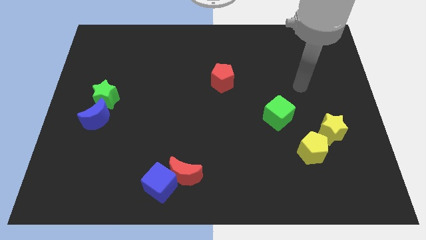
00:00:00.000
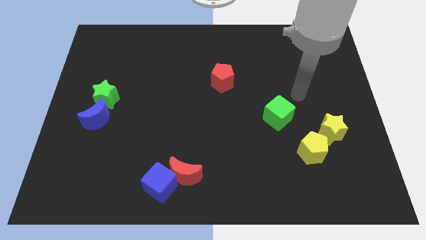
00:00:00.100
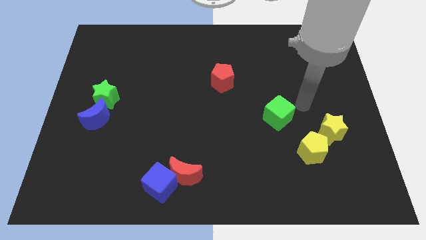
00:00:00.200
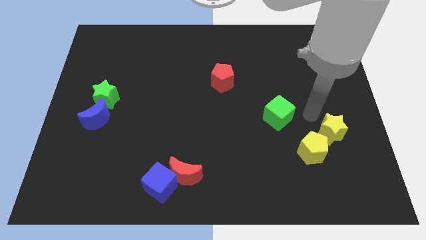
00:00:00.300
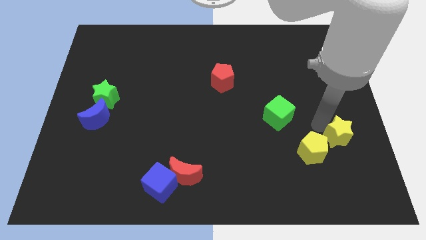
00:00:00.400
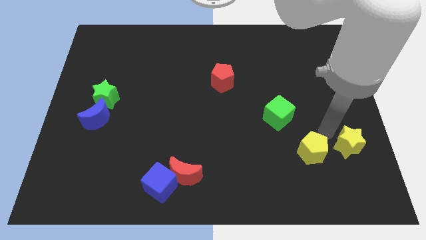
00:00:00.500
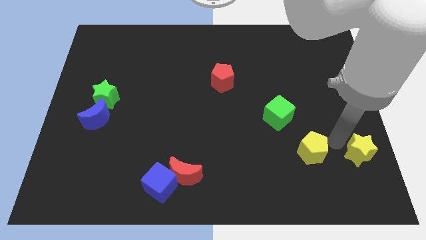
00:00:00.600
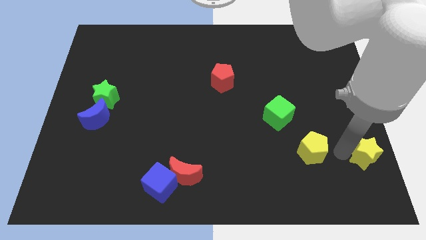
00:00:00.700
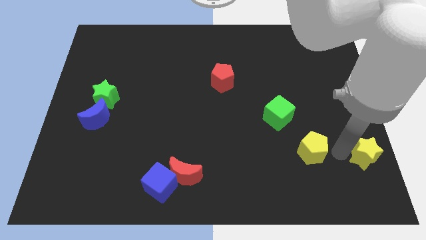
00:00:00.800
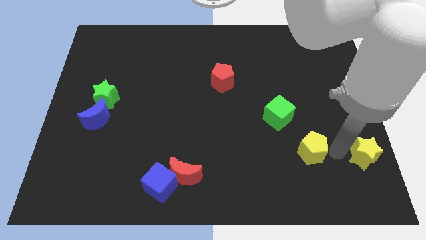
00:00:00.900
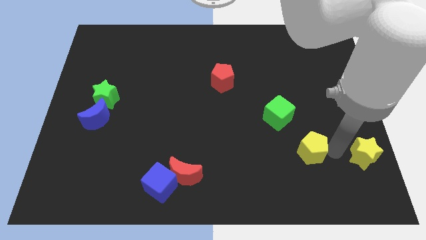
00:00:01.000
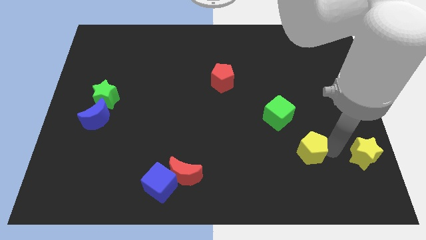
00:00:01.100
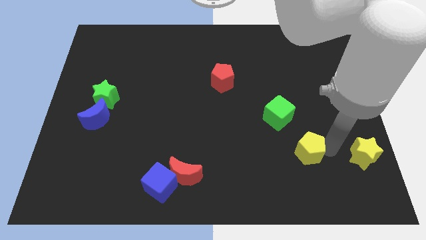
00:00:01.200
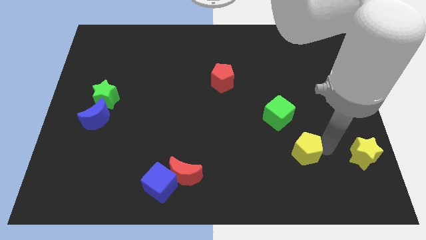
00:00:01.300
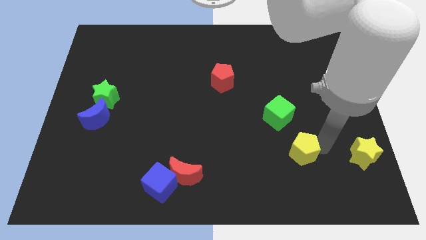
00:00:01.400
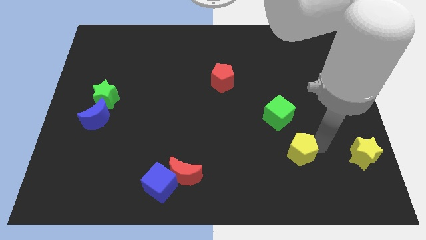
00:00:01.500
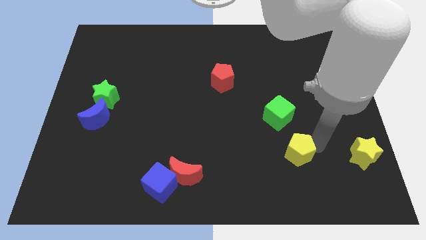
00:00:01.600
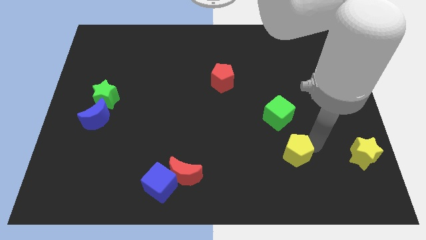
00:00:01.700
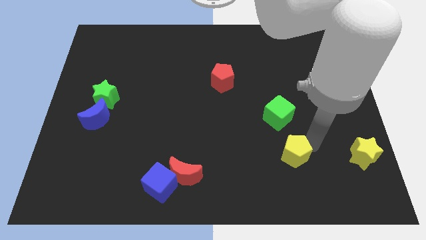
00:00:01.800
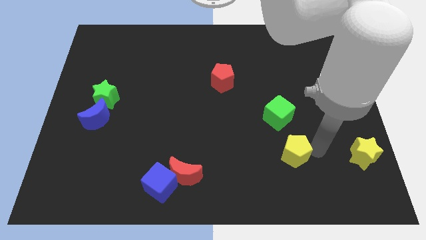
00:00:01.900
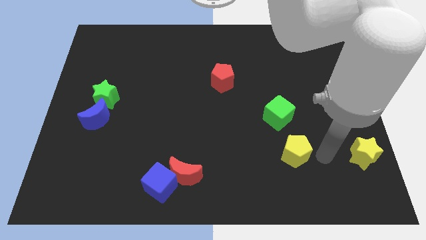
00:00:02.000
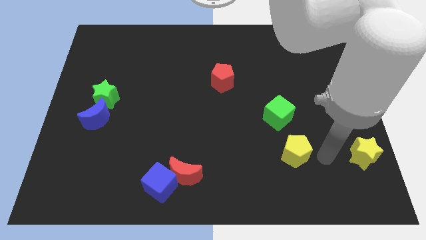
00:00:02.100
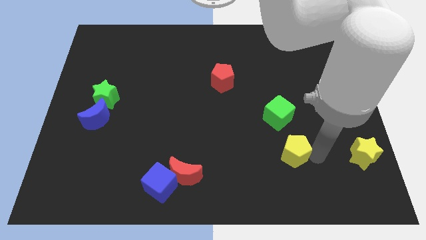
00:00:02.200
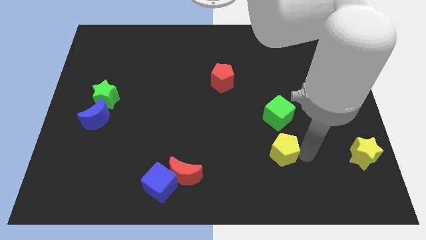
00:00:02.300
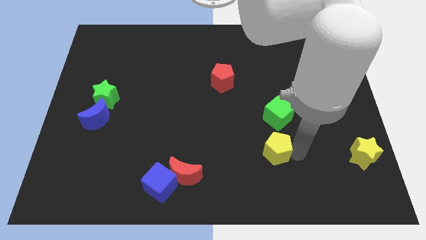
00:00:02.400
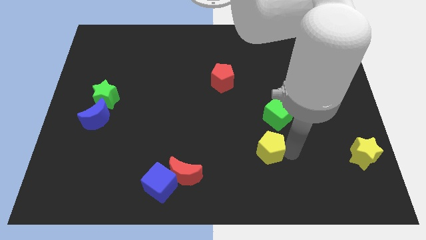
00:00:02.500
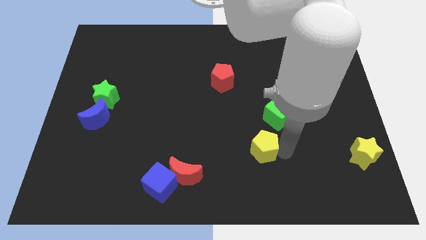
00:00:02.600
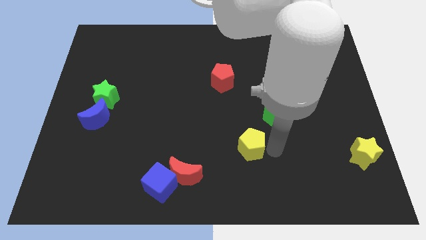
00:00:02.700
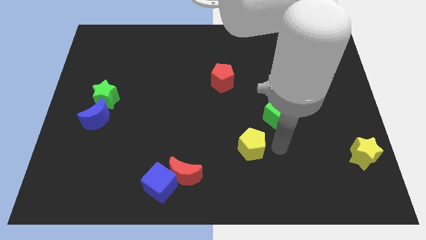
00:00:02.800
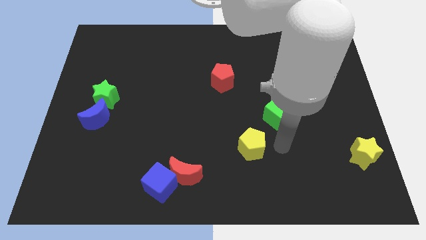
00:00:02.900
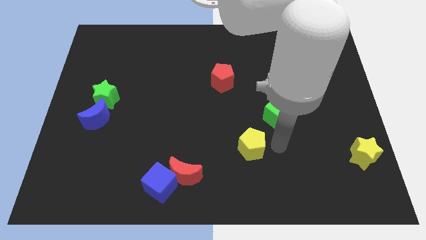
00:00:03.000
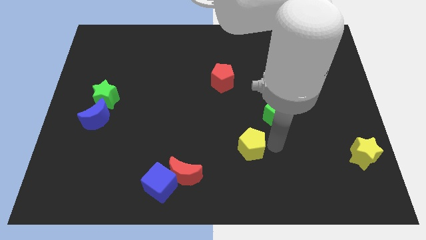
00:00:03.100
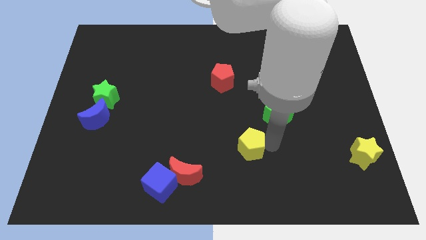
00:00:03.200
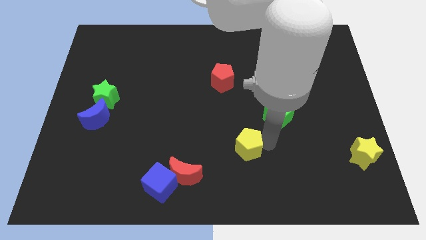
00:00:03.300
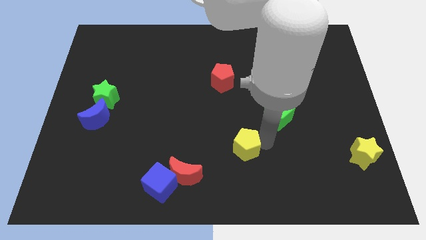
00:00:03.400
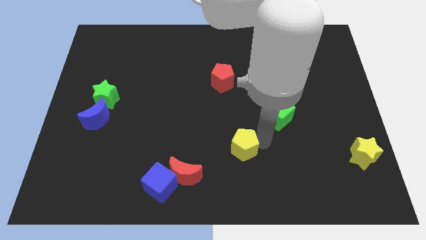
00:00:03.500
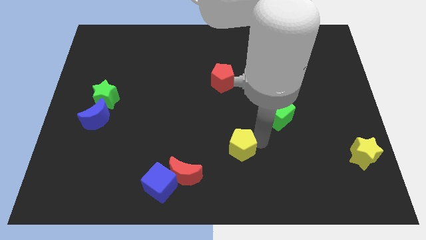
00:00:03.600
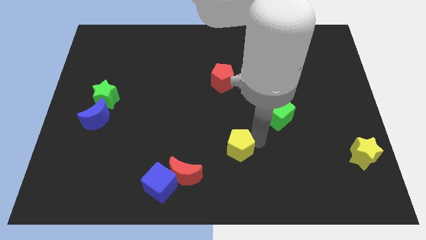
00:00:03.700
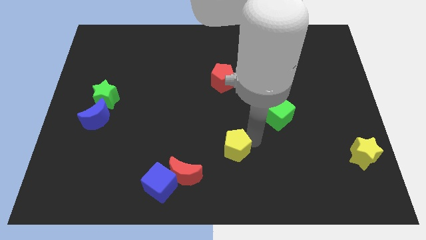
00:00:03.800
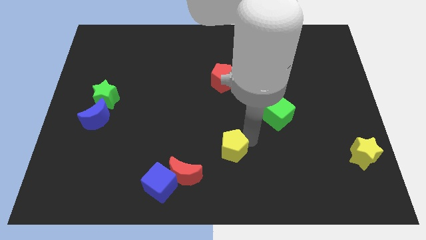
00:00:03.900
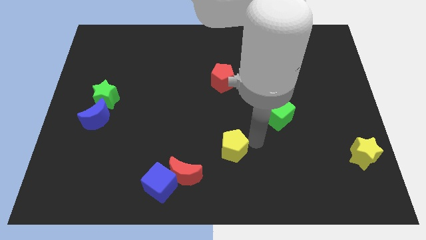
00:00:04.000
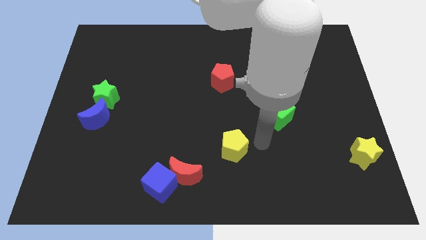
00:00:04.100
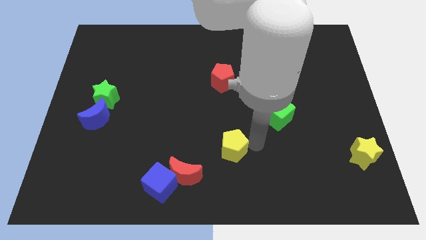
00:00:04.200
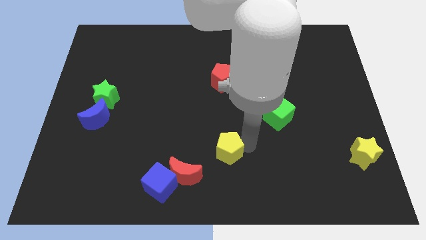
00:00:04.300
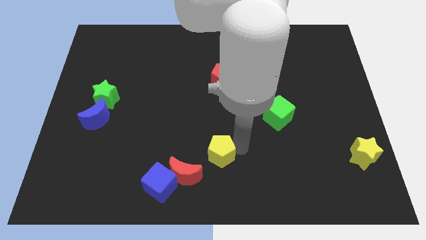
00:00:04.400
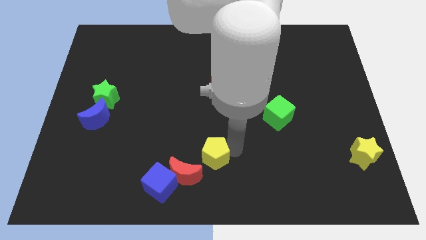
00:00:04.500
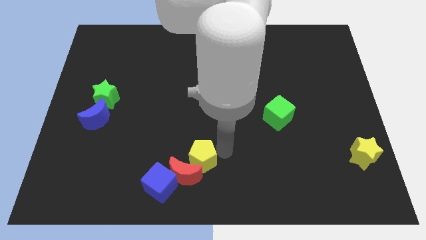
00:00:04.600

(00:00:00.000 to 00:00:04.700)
push the yellow pentagon next to the red moon

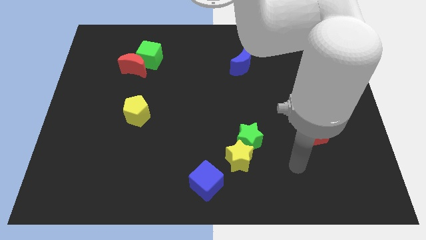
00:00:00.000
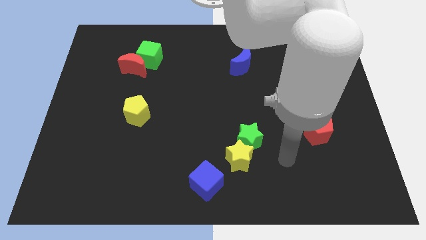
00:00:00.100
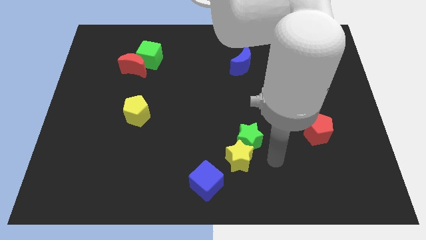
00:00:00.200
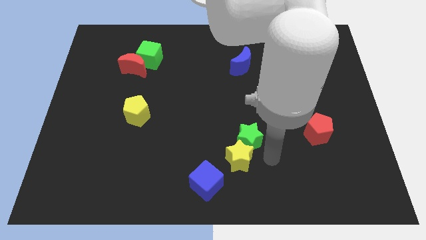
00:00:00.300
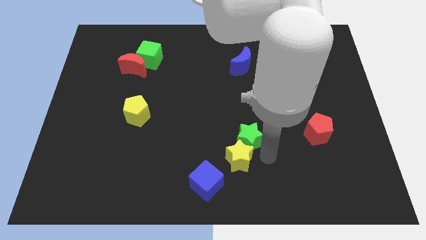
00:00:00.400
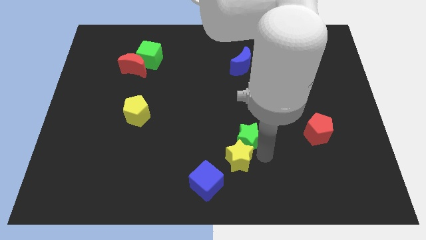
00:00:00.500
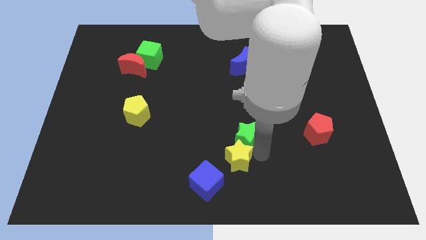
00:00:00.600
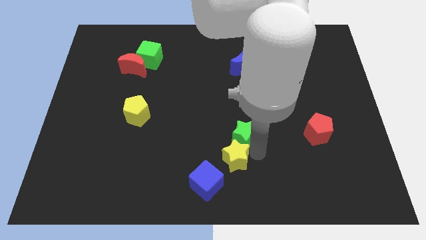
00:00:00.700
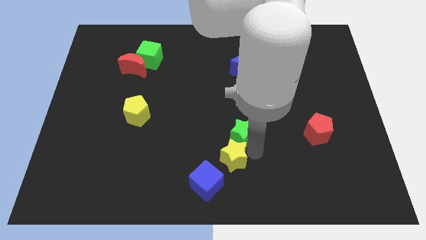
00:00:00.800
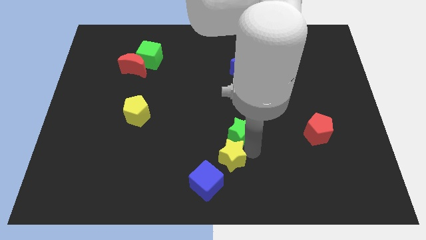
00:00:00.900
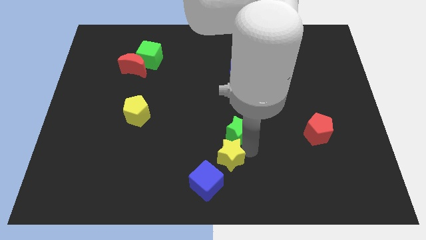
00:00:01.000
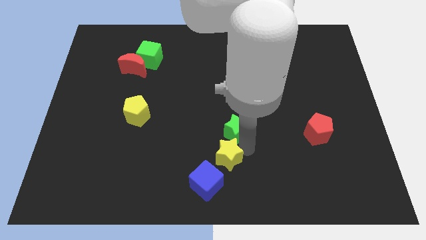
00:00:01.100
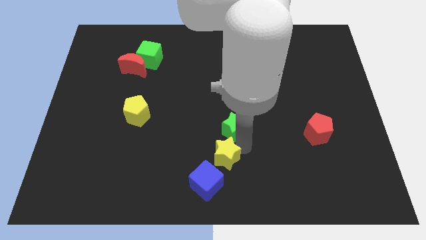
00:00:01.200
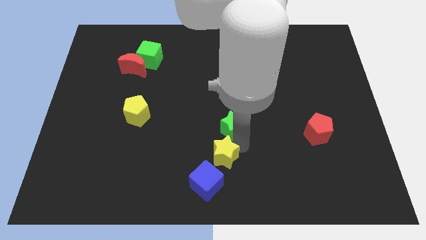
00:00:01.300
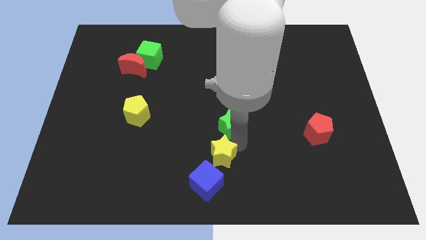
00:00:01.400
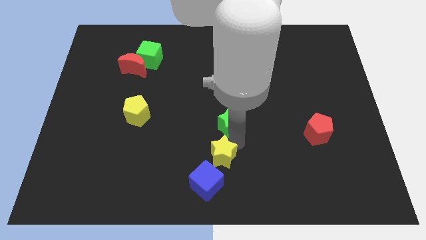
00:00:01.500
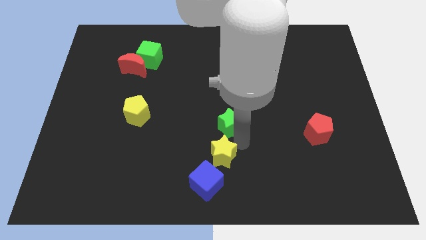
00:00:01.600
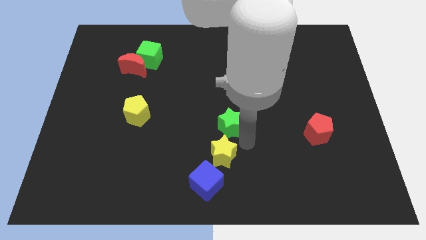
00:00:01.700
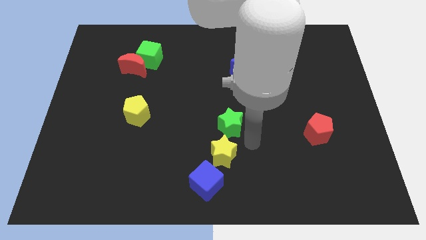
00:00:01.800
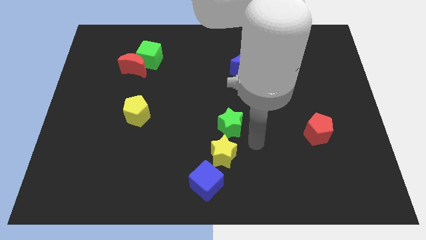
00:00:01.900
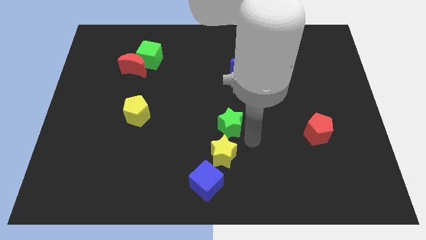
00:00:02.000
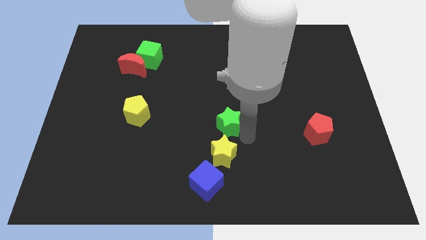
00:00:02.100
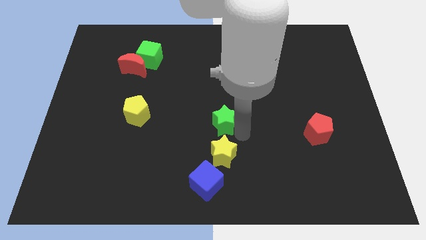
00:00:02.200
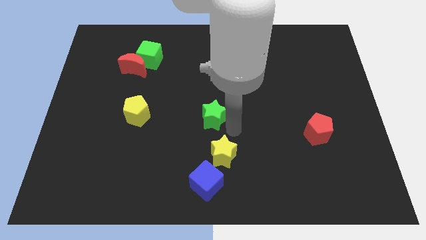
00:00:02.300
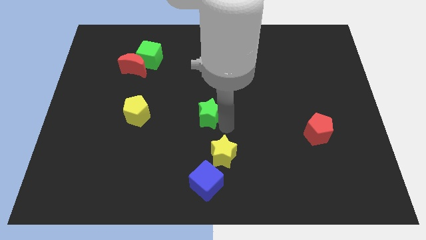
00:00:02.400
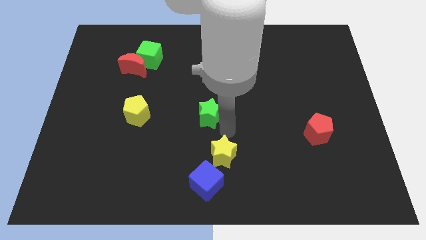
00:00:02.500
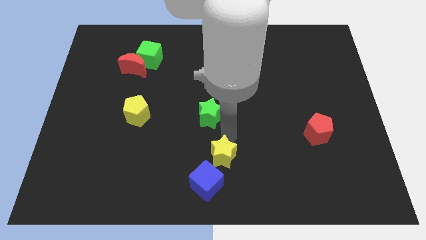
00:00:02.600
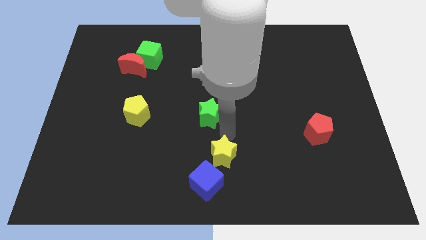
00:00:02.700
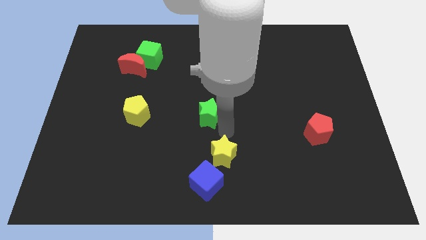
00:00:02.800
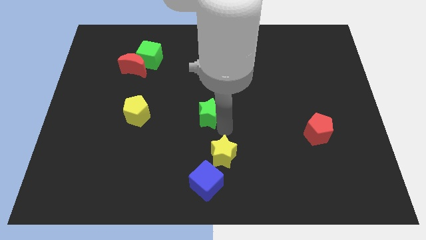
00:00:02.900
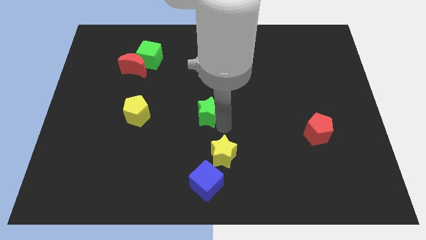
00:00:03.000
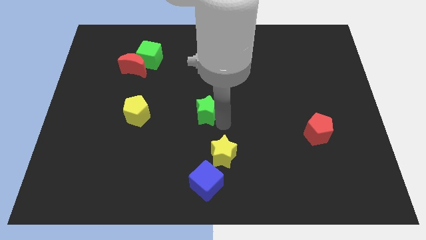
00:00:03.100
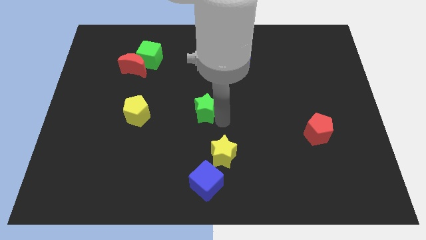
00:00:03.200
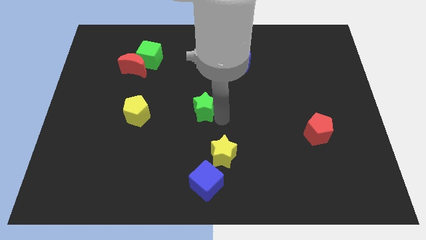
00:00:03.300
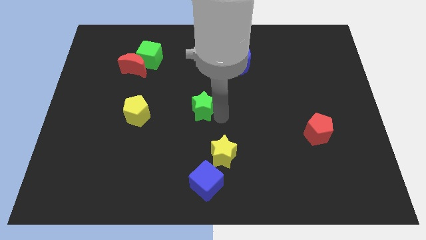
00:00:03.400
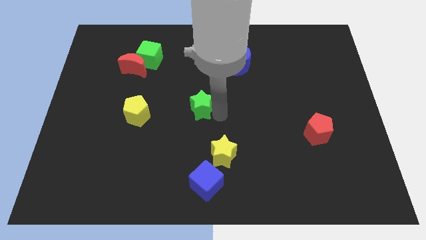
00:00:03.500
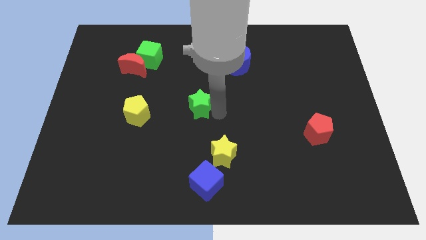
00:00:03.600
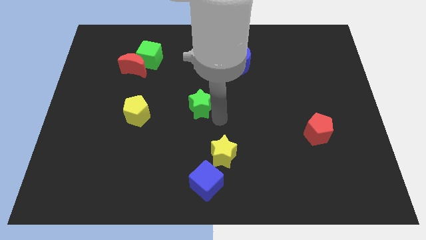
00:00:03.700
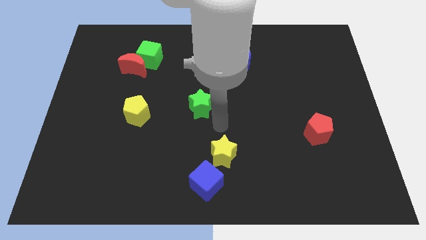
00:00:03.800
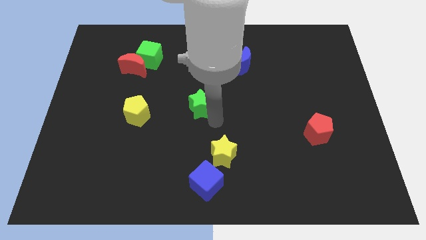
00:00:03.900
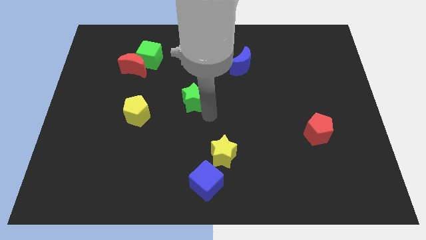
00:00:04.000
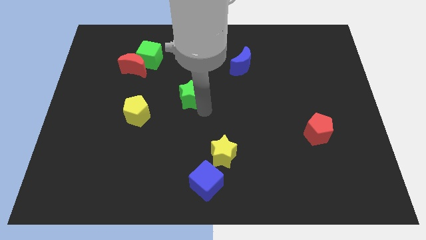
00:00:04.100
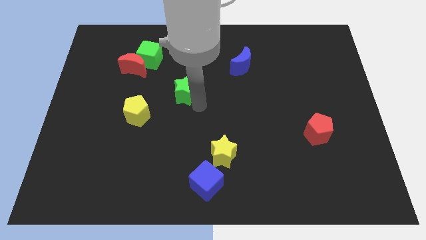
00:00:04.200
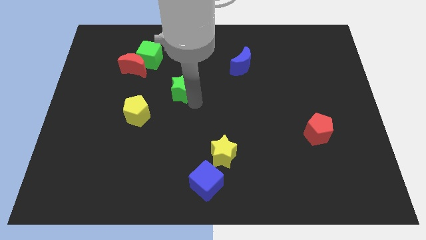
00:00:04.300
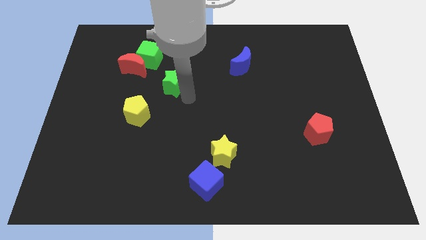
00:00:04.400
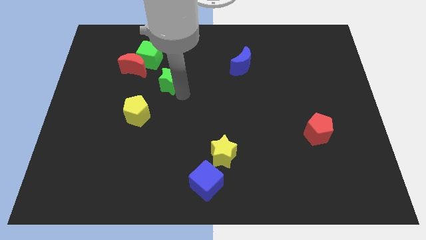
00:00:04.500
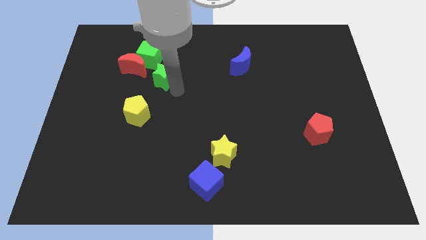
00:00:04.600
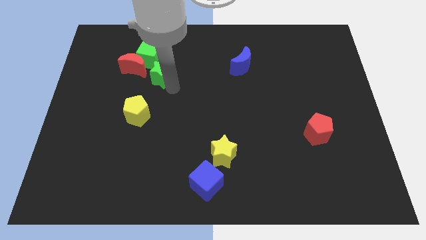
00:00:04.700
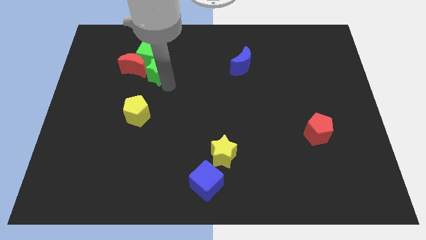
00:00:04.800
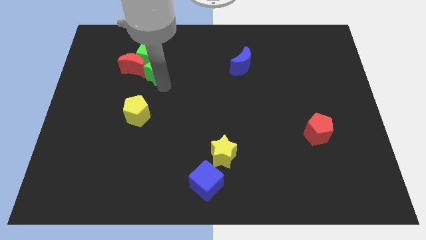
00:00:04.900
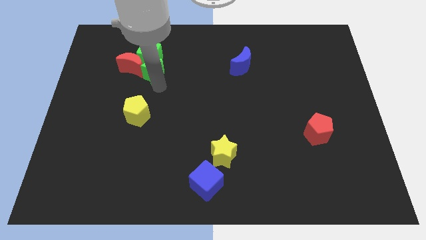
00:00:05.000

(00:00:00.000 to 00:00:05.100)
move the green star towards the green cube
